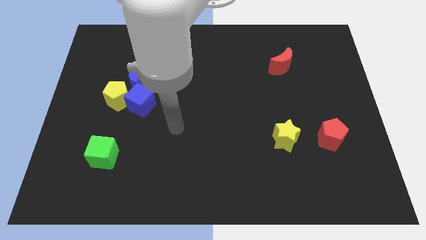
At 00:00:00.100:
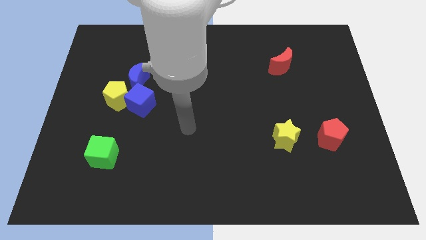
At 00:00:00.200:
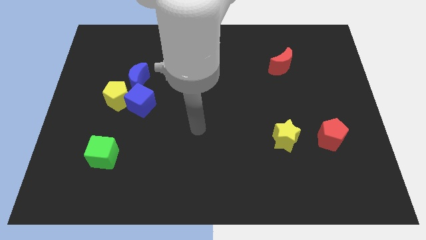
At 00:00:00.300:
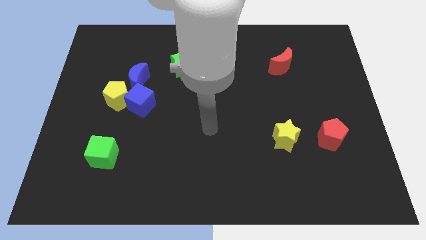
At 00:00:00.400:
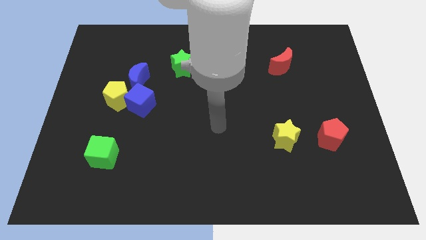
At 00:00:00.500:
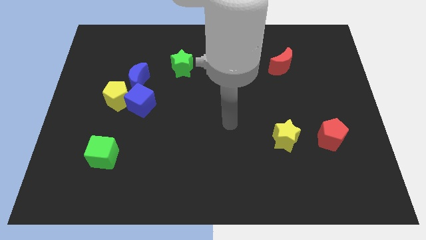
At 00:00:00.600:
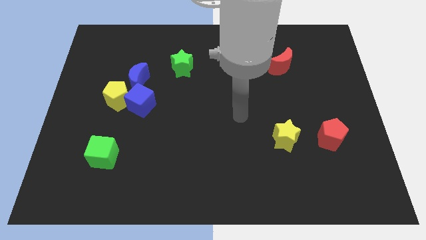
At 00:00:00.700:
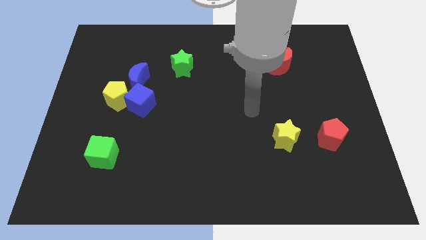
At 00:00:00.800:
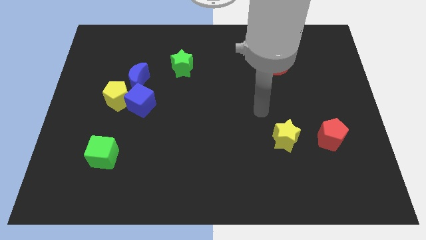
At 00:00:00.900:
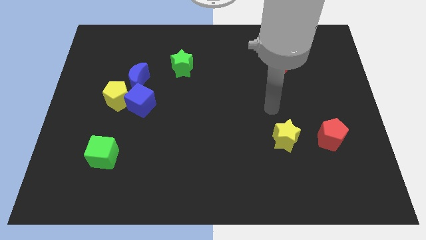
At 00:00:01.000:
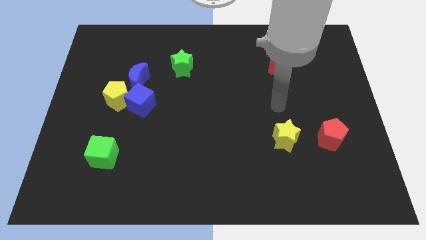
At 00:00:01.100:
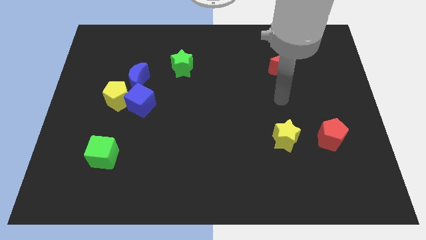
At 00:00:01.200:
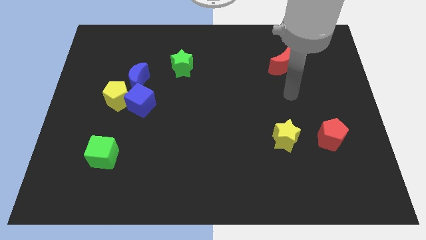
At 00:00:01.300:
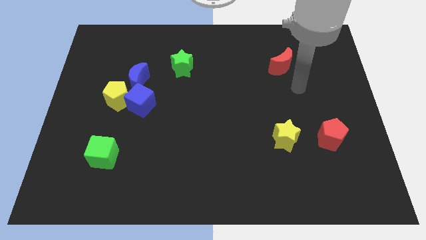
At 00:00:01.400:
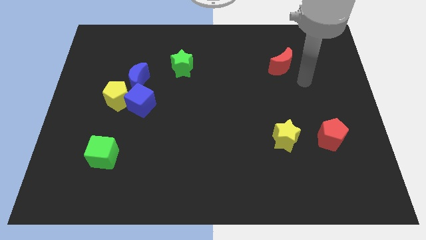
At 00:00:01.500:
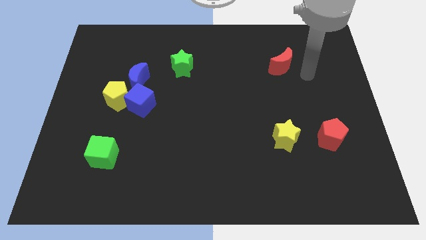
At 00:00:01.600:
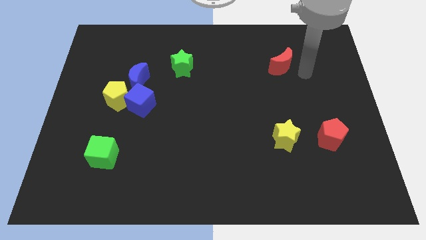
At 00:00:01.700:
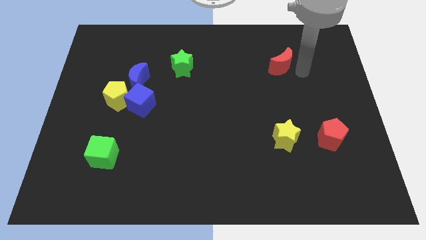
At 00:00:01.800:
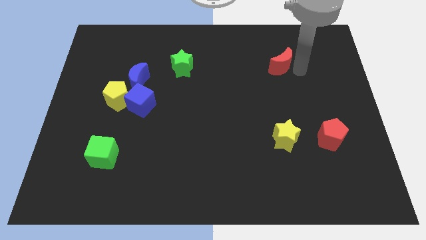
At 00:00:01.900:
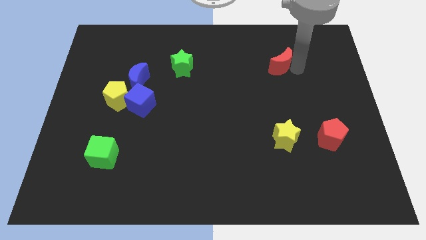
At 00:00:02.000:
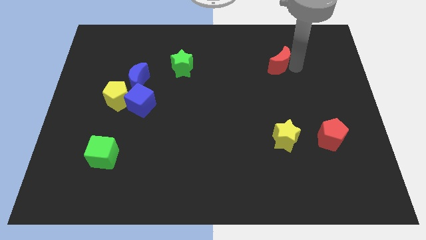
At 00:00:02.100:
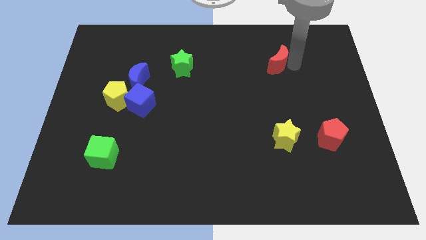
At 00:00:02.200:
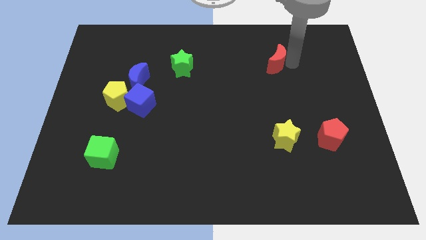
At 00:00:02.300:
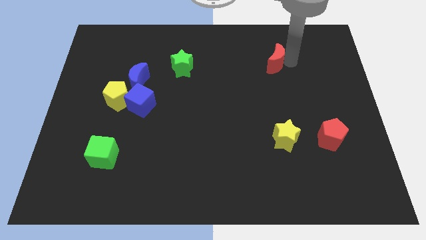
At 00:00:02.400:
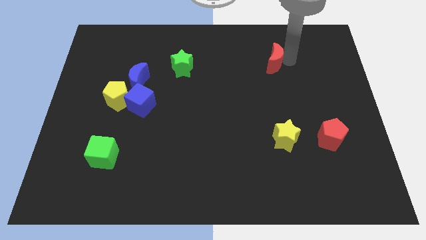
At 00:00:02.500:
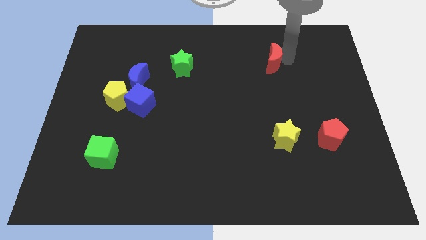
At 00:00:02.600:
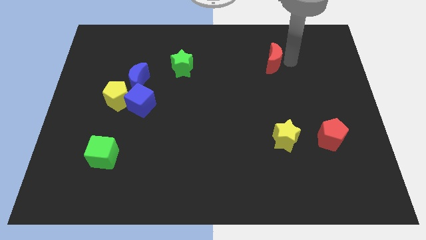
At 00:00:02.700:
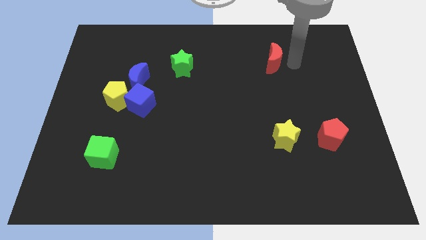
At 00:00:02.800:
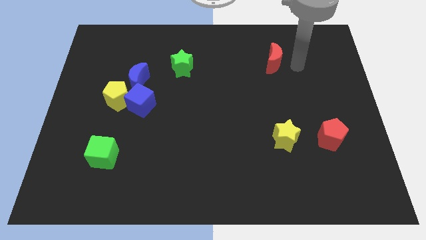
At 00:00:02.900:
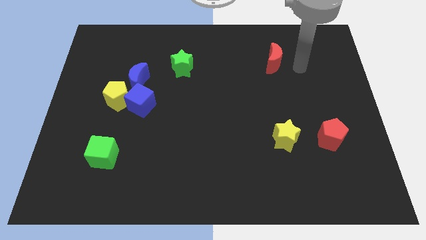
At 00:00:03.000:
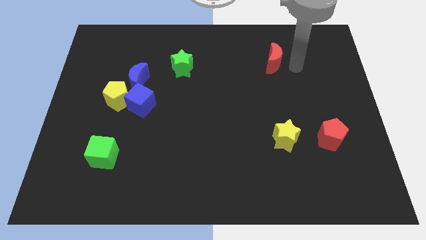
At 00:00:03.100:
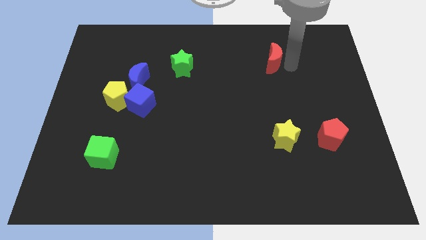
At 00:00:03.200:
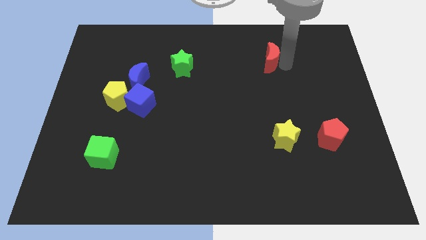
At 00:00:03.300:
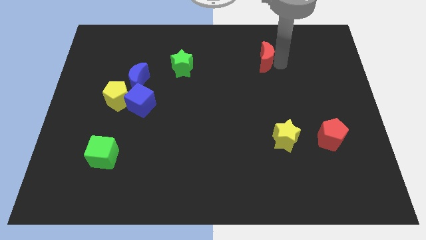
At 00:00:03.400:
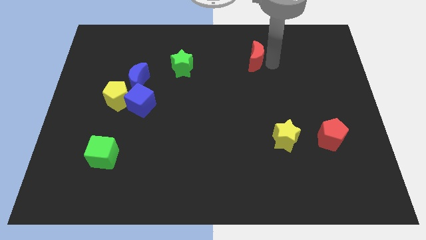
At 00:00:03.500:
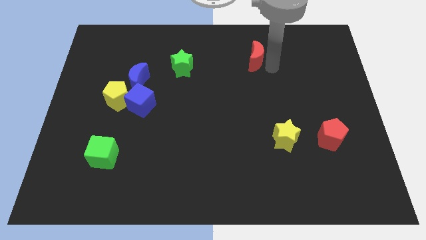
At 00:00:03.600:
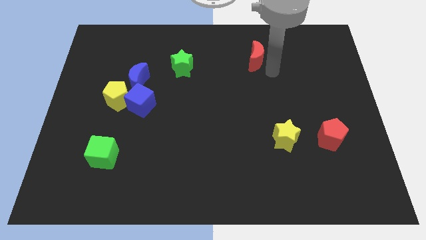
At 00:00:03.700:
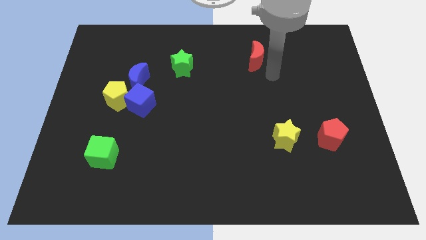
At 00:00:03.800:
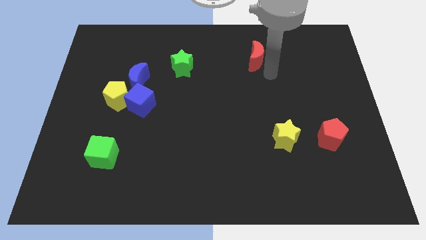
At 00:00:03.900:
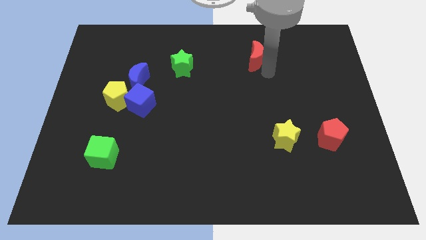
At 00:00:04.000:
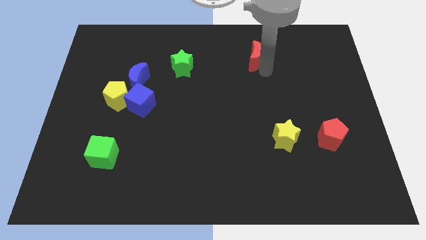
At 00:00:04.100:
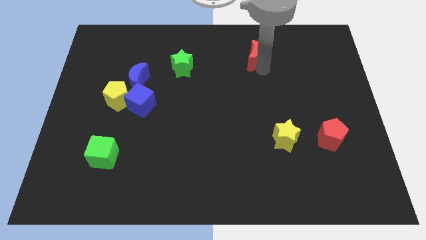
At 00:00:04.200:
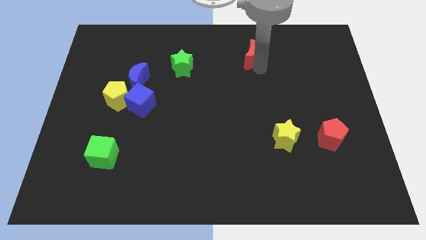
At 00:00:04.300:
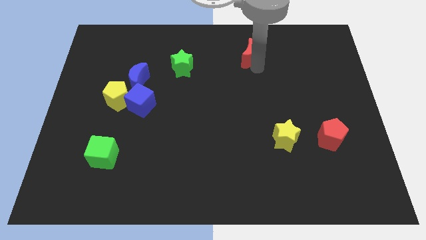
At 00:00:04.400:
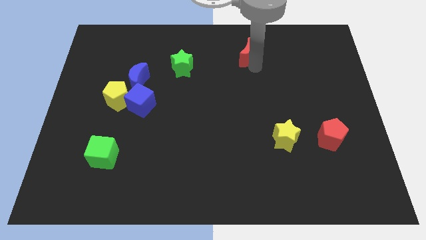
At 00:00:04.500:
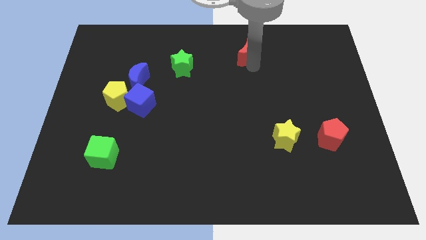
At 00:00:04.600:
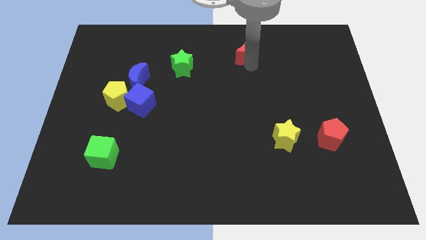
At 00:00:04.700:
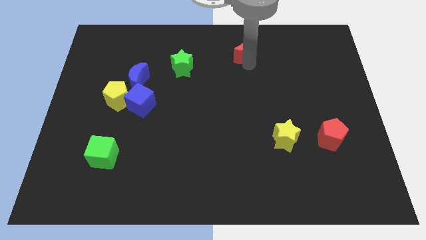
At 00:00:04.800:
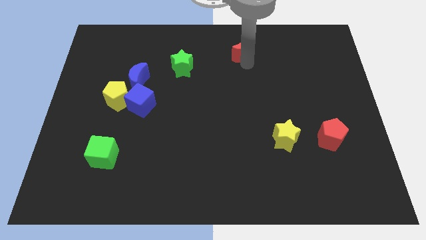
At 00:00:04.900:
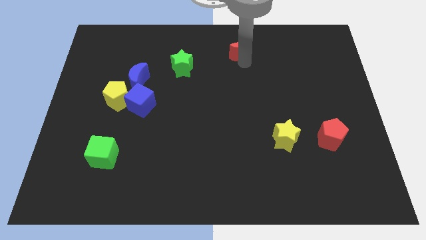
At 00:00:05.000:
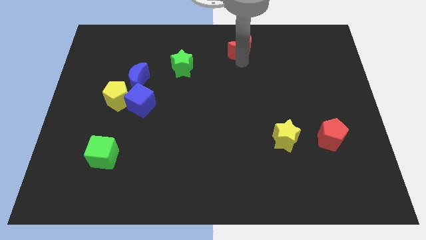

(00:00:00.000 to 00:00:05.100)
move the red moon to the top

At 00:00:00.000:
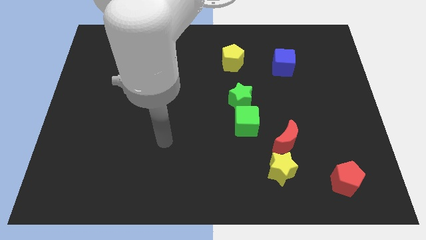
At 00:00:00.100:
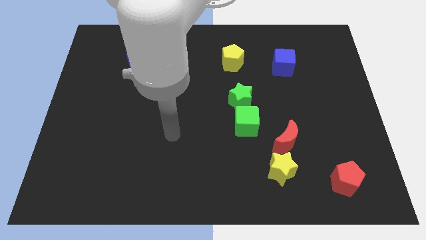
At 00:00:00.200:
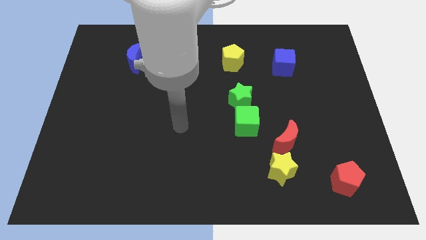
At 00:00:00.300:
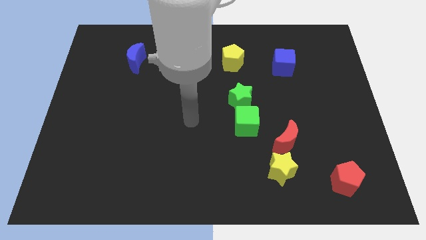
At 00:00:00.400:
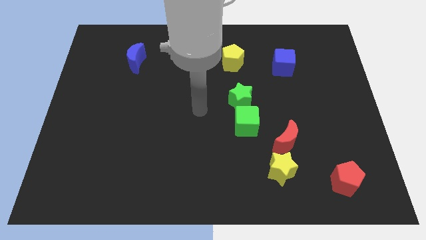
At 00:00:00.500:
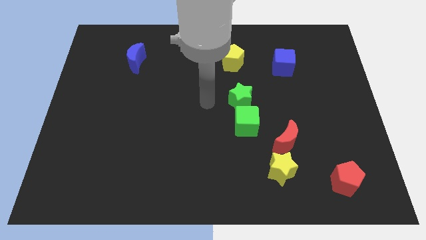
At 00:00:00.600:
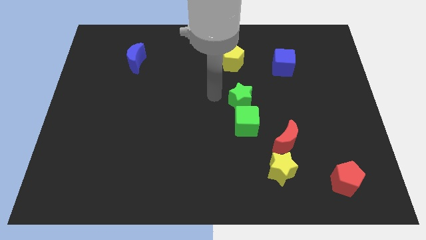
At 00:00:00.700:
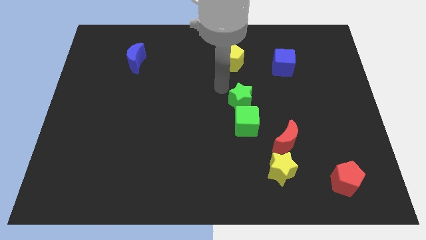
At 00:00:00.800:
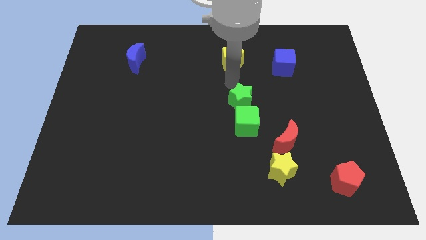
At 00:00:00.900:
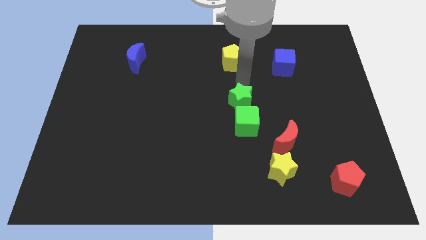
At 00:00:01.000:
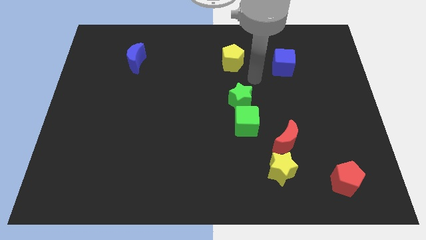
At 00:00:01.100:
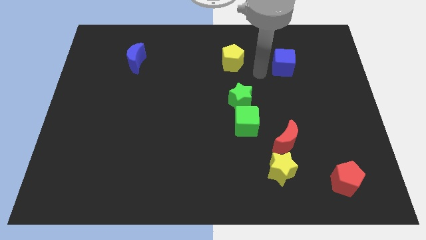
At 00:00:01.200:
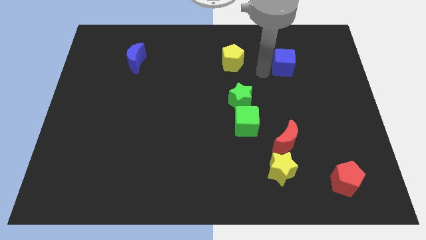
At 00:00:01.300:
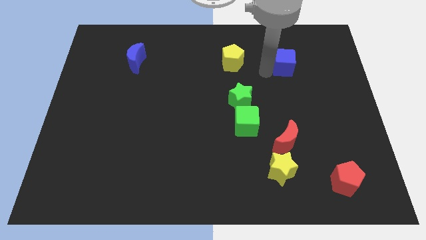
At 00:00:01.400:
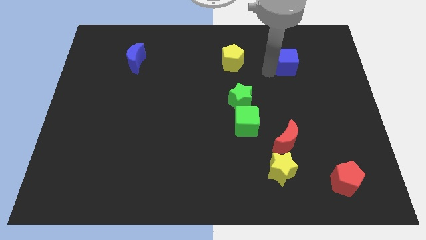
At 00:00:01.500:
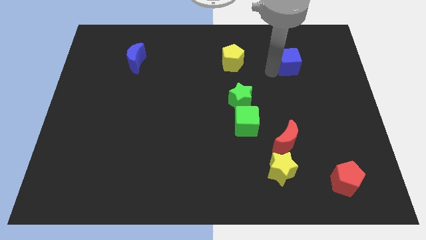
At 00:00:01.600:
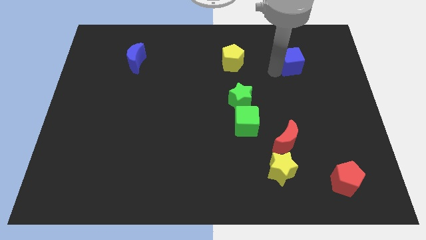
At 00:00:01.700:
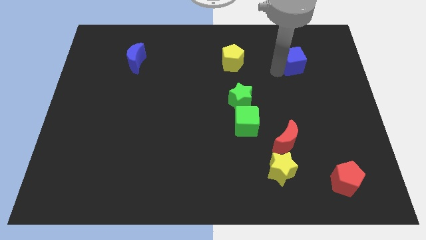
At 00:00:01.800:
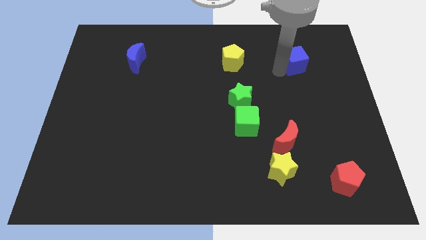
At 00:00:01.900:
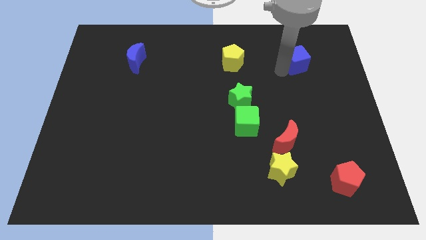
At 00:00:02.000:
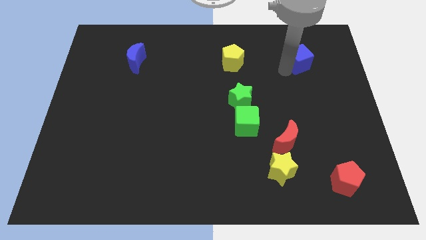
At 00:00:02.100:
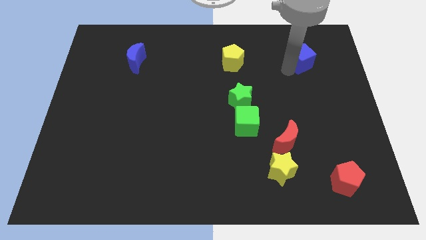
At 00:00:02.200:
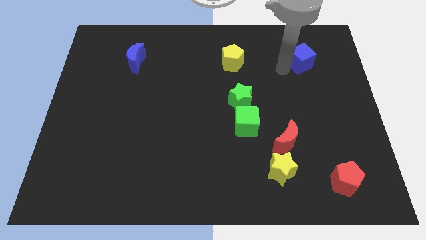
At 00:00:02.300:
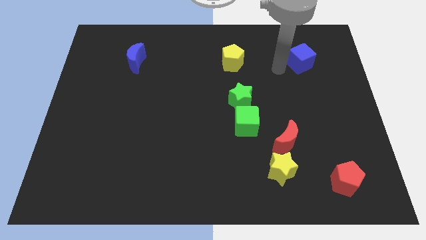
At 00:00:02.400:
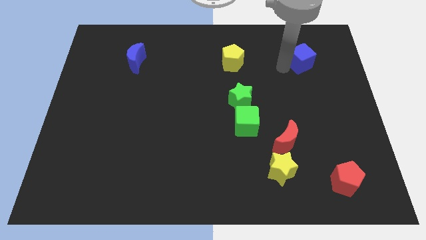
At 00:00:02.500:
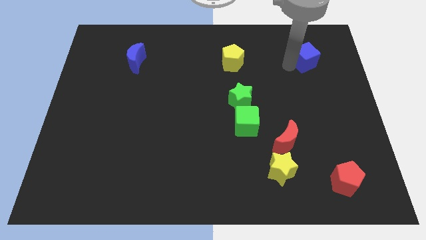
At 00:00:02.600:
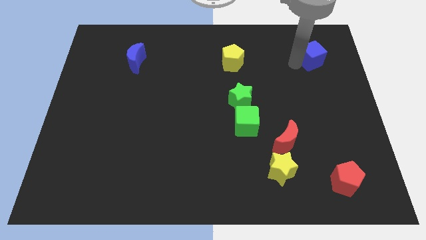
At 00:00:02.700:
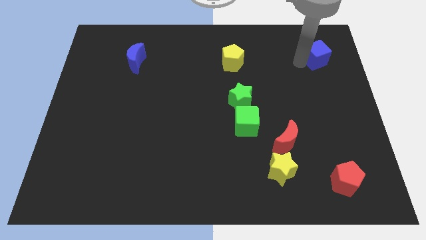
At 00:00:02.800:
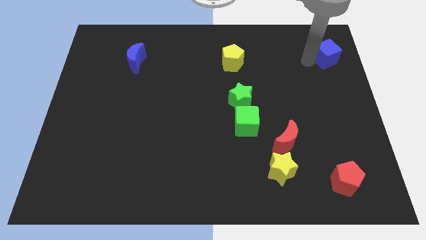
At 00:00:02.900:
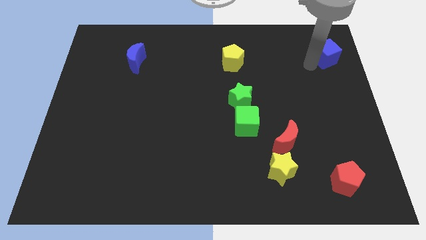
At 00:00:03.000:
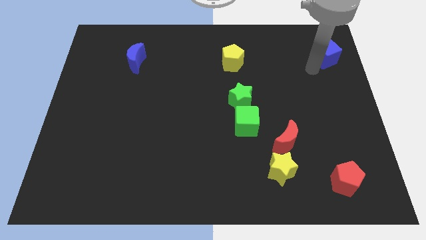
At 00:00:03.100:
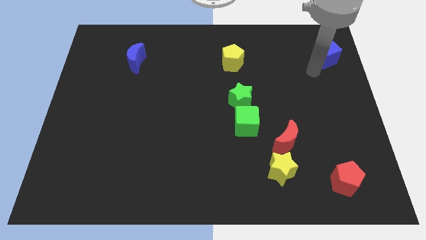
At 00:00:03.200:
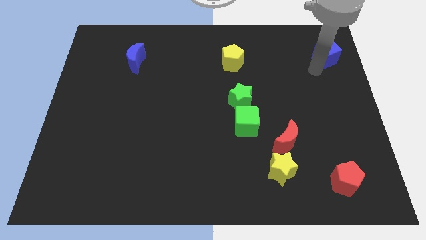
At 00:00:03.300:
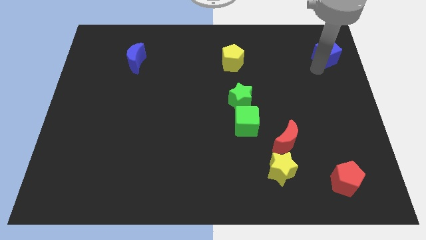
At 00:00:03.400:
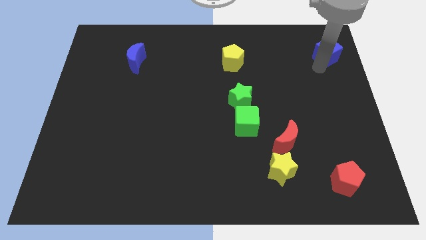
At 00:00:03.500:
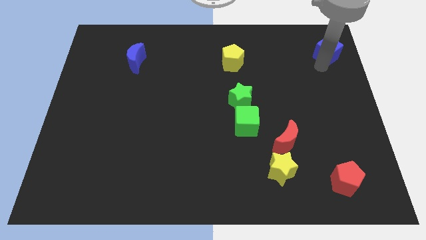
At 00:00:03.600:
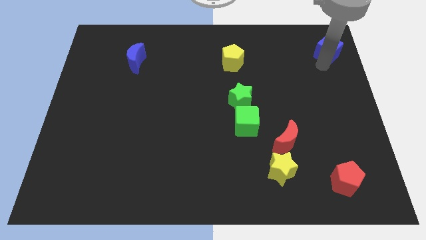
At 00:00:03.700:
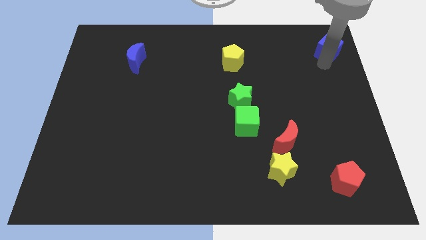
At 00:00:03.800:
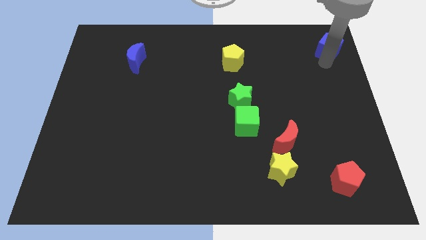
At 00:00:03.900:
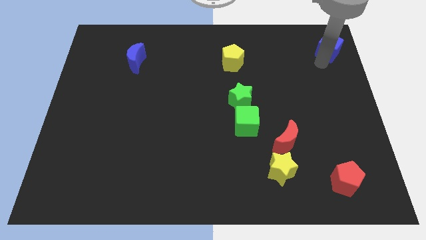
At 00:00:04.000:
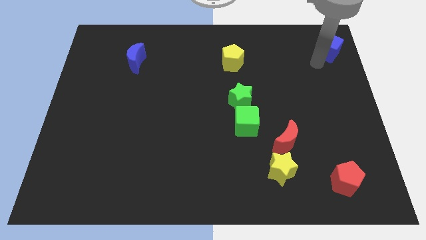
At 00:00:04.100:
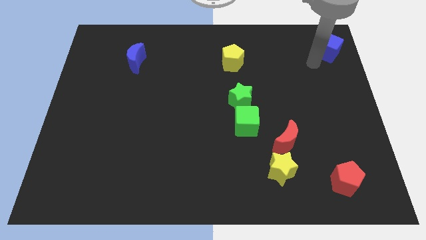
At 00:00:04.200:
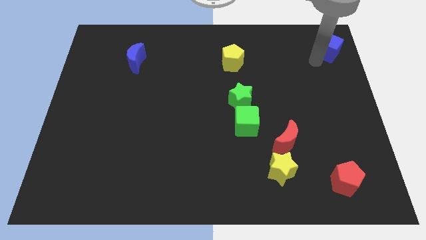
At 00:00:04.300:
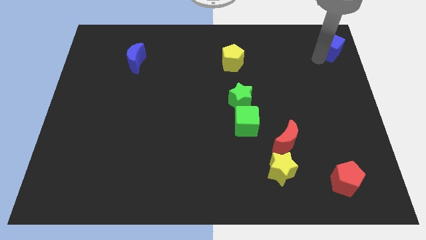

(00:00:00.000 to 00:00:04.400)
move the blue cube to the top right
